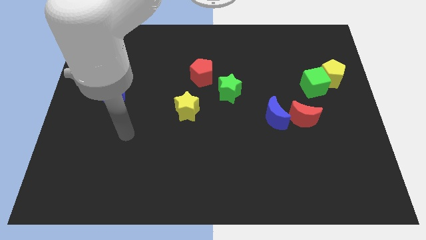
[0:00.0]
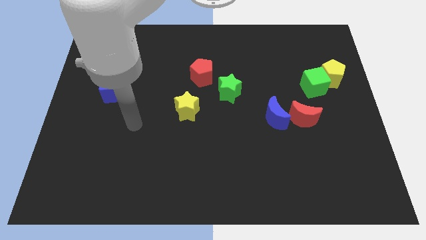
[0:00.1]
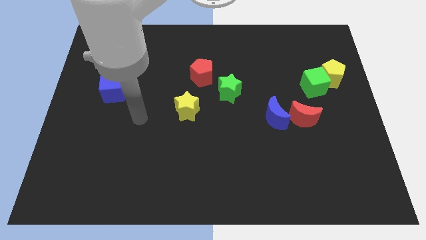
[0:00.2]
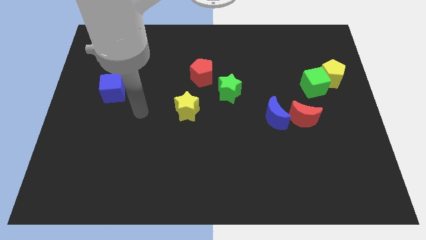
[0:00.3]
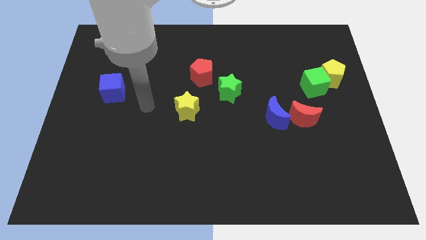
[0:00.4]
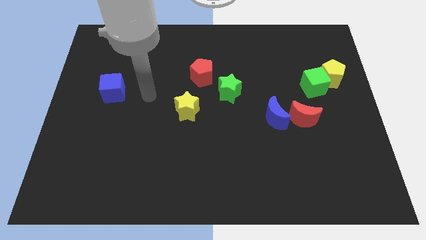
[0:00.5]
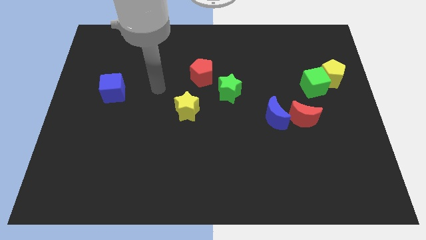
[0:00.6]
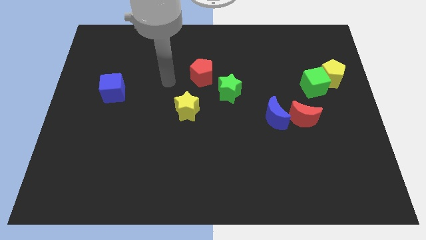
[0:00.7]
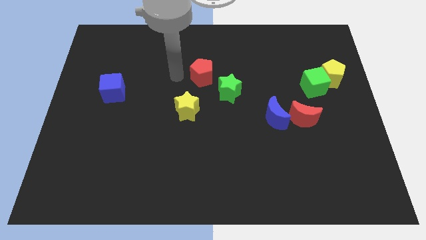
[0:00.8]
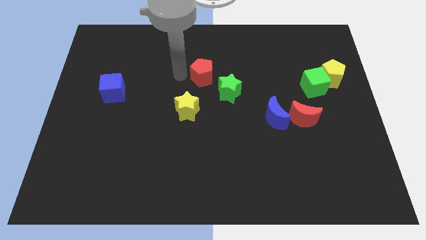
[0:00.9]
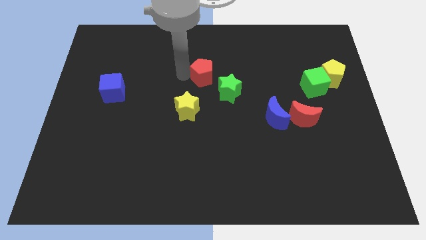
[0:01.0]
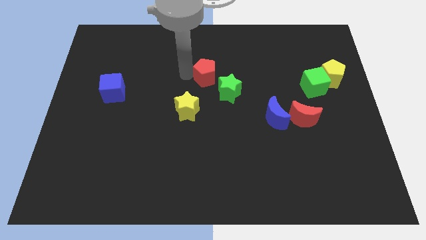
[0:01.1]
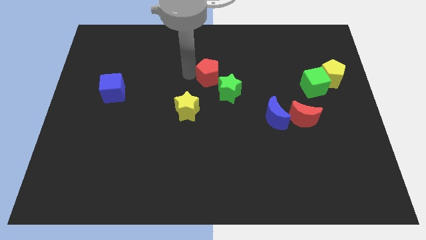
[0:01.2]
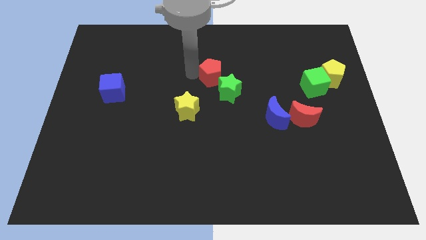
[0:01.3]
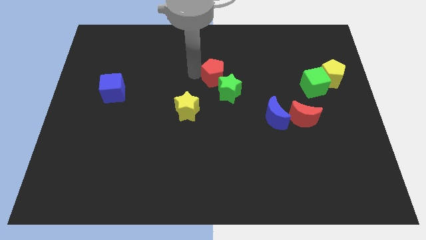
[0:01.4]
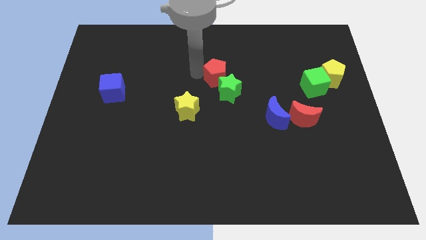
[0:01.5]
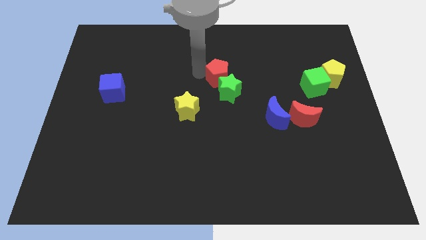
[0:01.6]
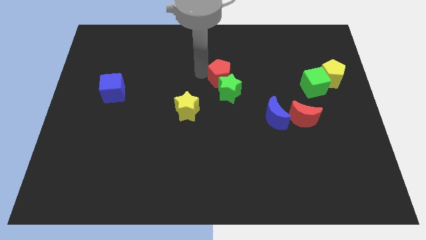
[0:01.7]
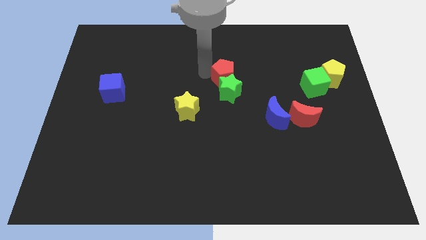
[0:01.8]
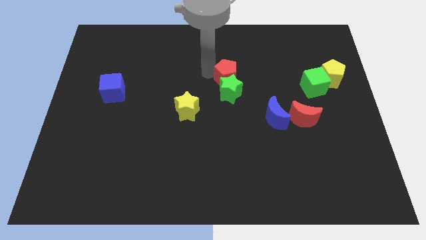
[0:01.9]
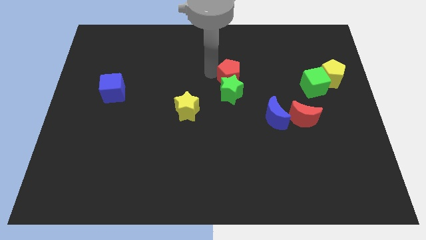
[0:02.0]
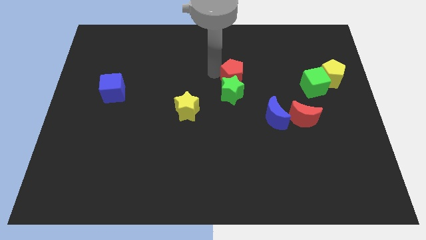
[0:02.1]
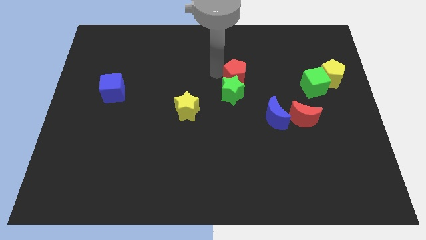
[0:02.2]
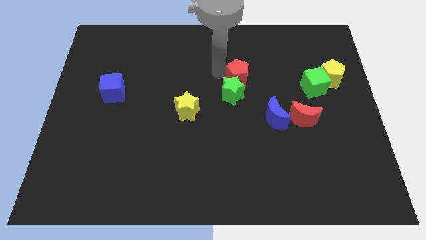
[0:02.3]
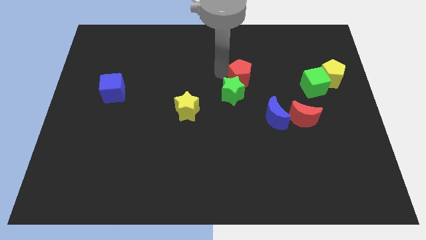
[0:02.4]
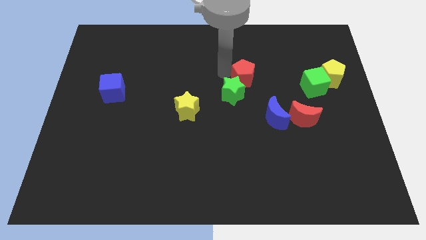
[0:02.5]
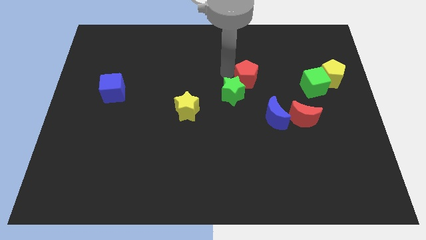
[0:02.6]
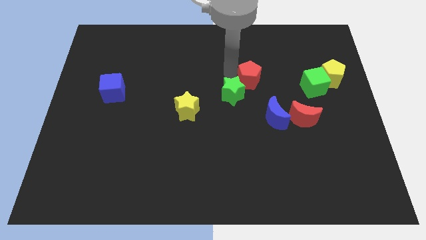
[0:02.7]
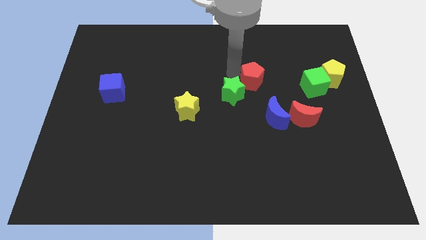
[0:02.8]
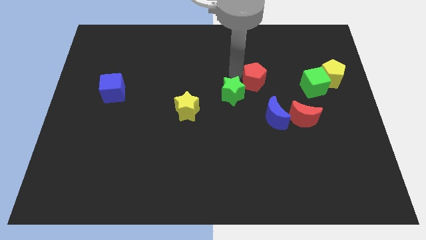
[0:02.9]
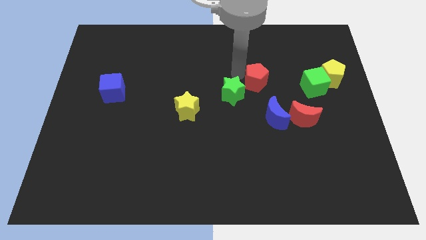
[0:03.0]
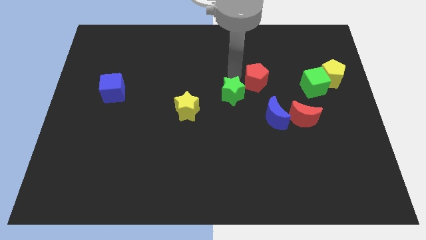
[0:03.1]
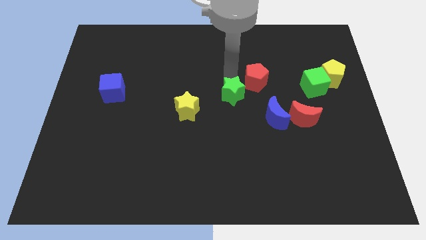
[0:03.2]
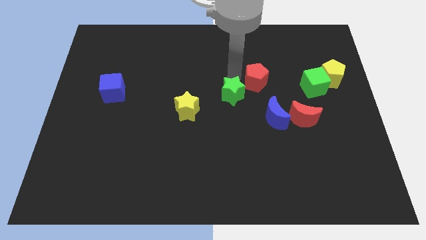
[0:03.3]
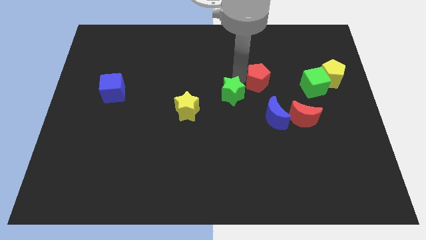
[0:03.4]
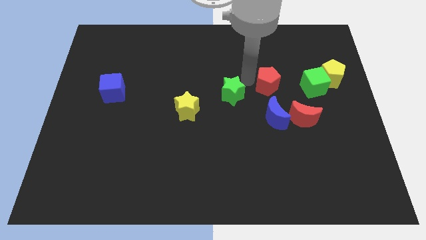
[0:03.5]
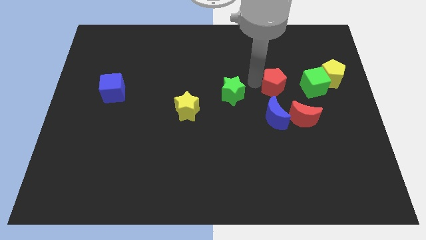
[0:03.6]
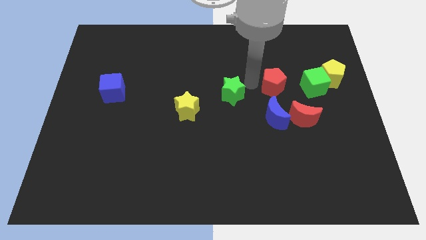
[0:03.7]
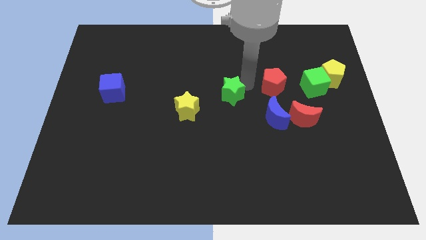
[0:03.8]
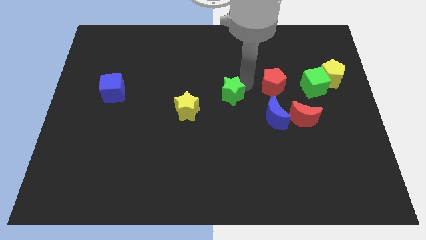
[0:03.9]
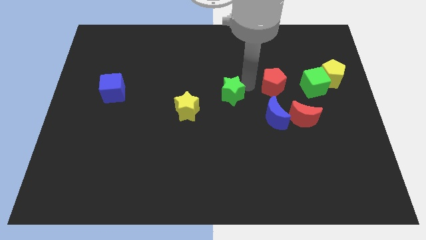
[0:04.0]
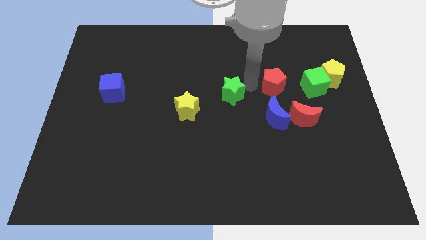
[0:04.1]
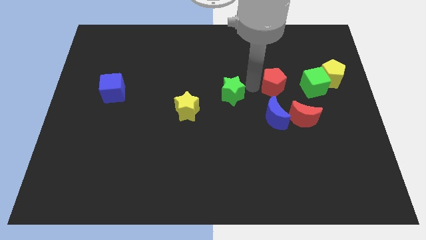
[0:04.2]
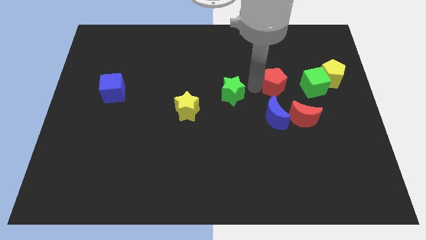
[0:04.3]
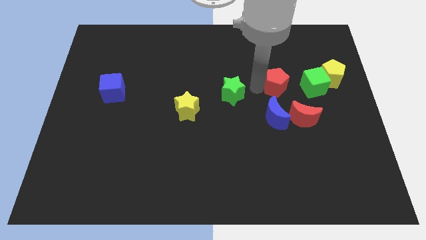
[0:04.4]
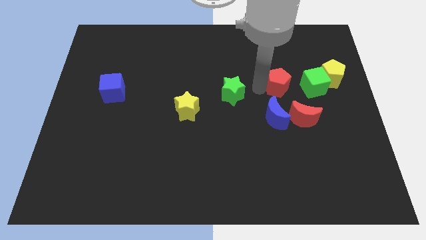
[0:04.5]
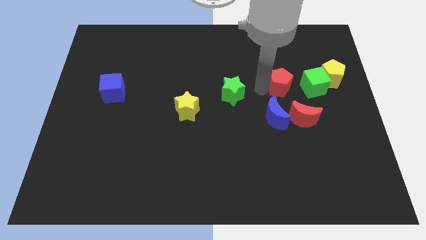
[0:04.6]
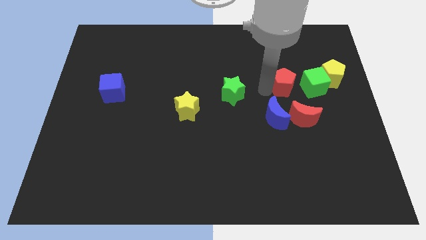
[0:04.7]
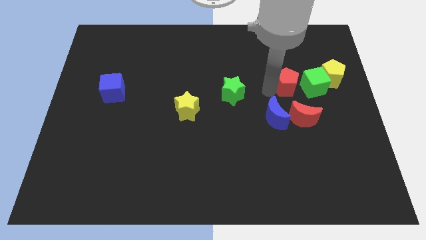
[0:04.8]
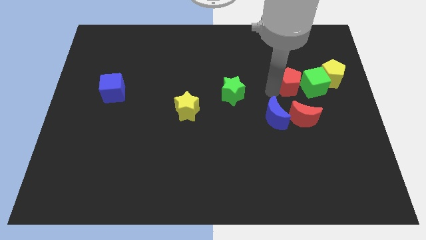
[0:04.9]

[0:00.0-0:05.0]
push the red pentagon next to the green cube

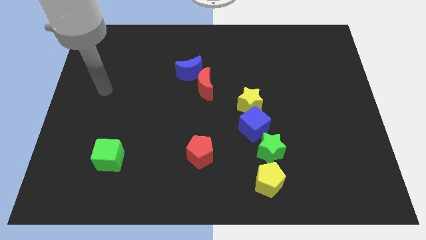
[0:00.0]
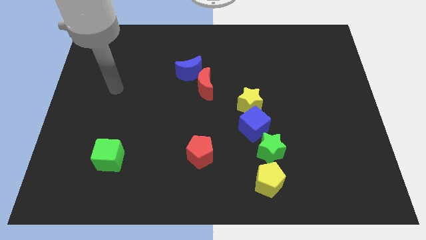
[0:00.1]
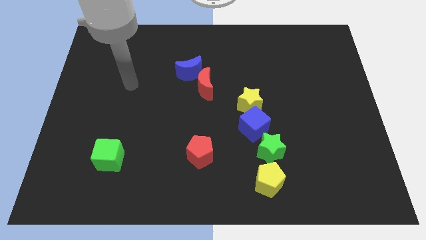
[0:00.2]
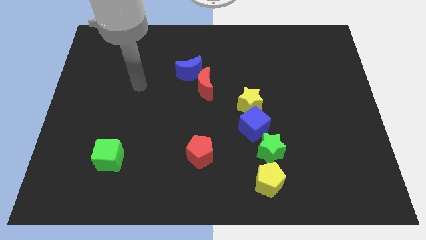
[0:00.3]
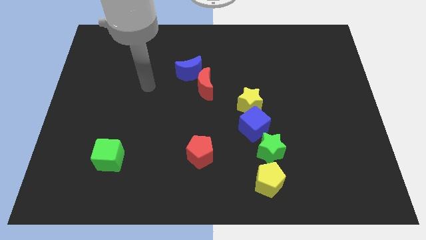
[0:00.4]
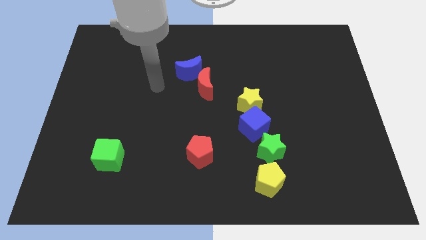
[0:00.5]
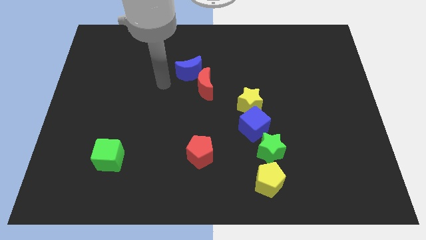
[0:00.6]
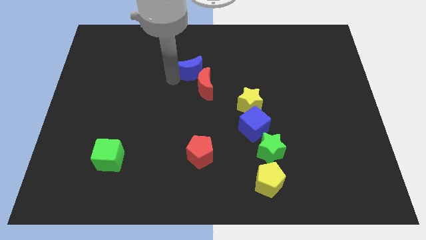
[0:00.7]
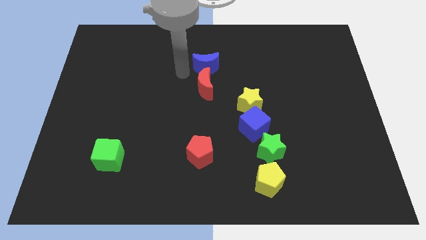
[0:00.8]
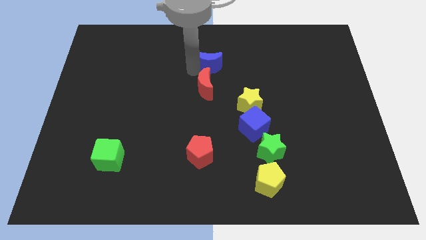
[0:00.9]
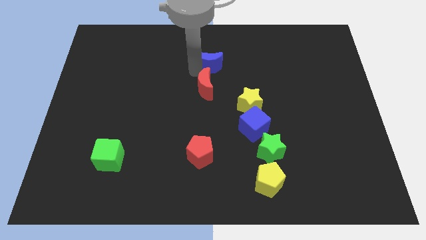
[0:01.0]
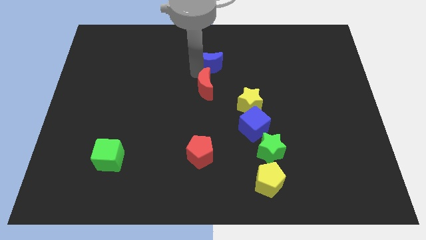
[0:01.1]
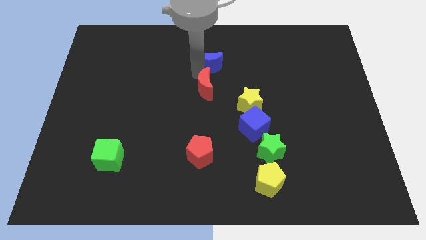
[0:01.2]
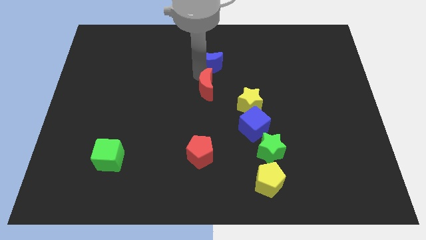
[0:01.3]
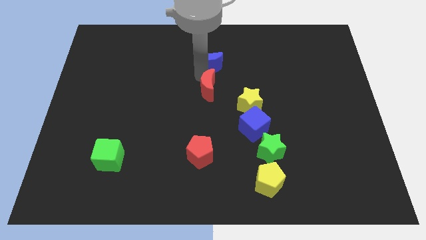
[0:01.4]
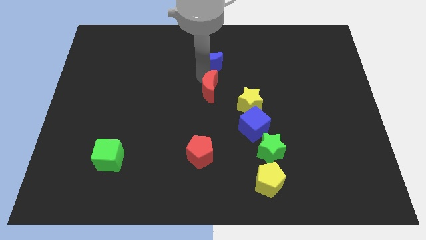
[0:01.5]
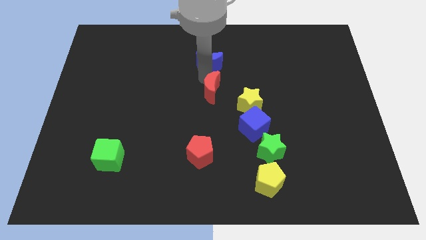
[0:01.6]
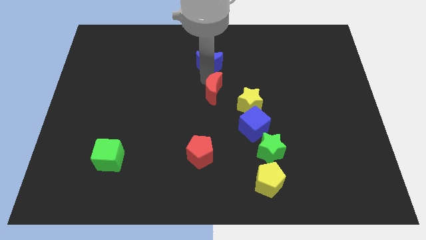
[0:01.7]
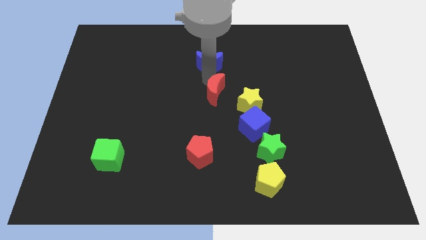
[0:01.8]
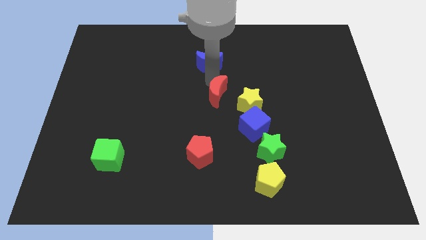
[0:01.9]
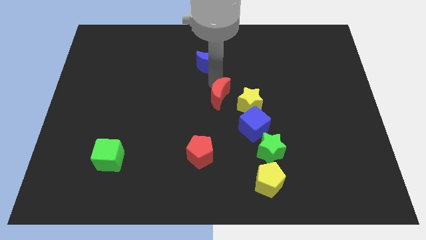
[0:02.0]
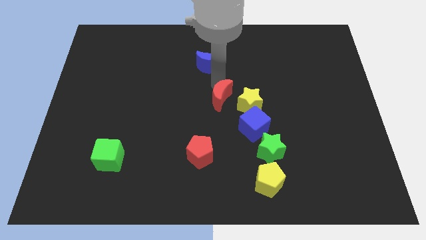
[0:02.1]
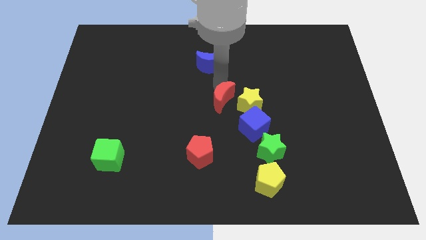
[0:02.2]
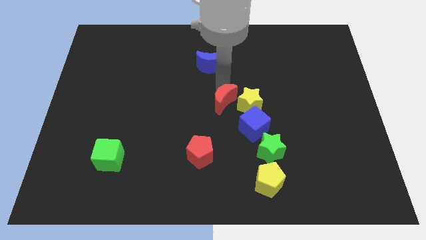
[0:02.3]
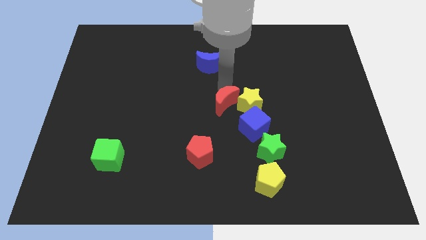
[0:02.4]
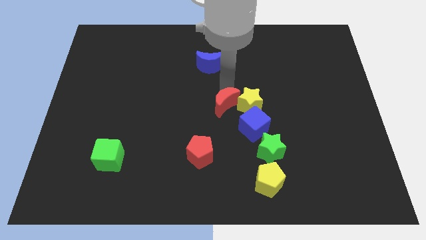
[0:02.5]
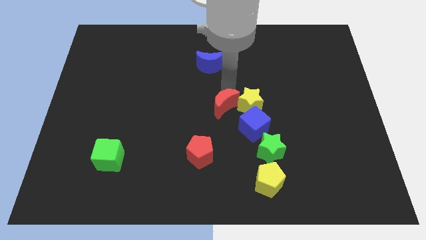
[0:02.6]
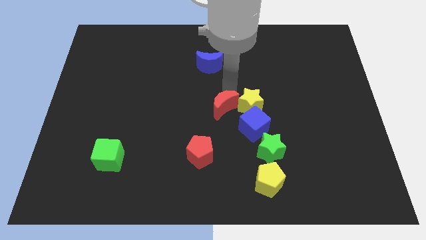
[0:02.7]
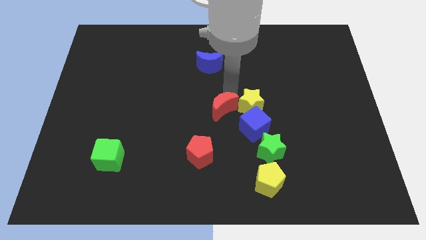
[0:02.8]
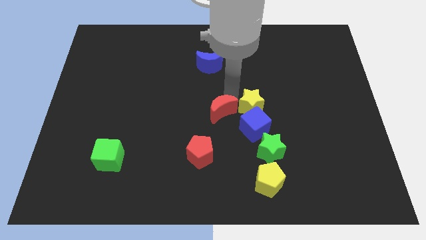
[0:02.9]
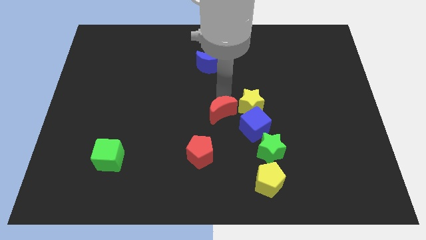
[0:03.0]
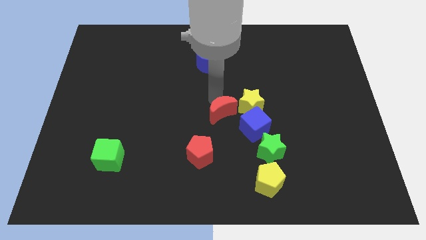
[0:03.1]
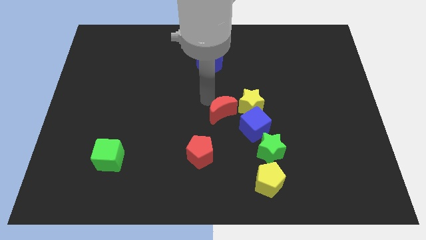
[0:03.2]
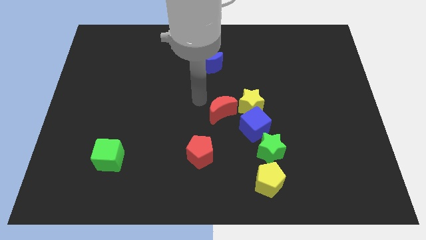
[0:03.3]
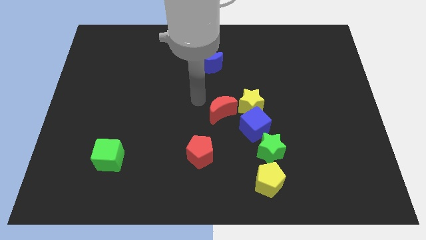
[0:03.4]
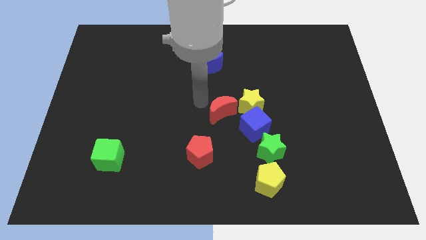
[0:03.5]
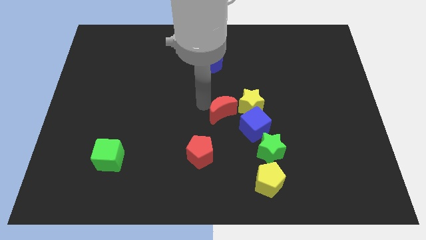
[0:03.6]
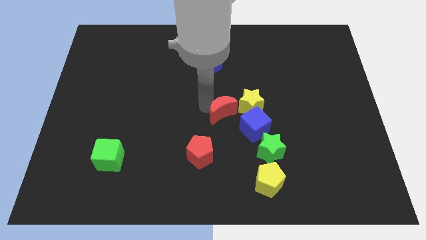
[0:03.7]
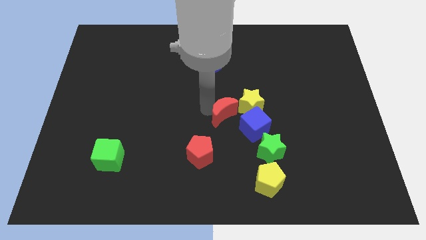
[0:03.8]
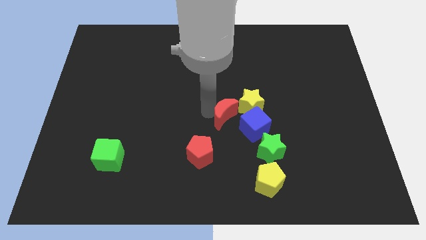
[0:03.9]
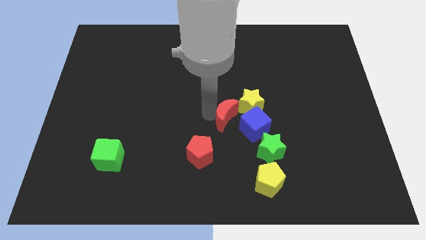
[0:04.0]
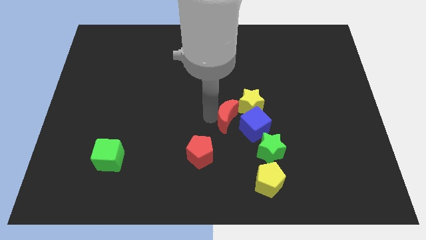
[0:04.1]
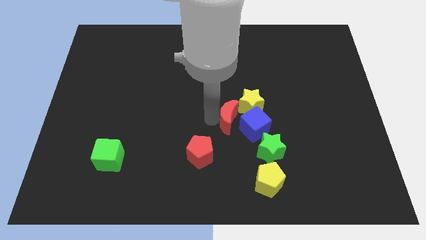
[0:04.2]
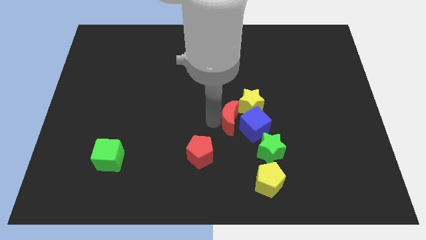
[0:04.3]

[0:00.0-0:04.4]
slide the red moon to the blue cube
